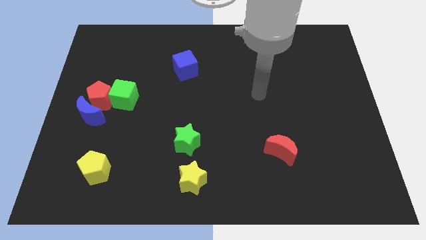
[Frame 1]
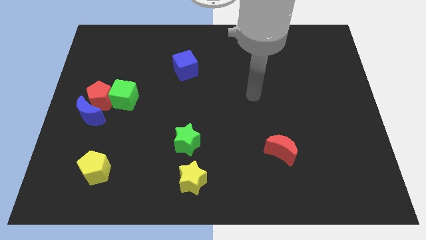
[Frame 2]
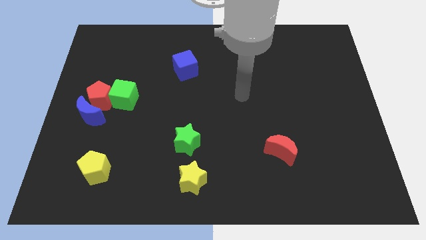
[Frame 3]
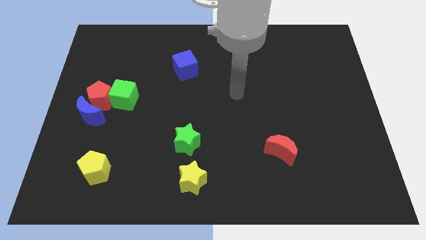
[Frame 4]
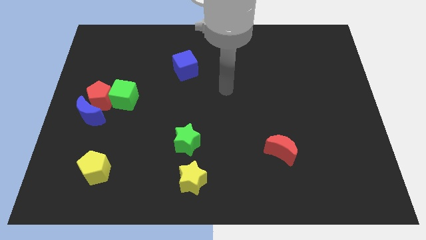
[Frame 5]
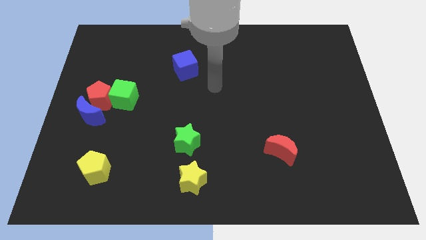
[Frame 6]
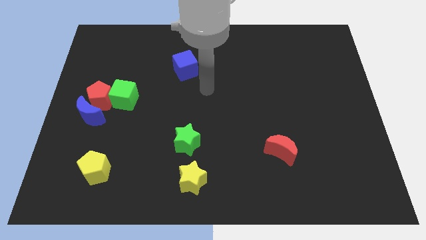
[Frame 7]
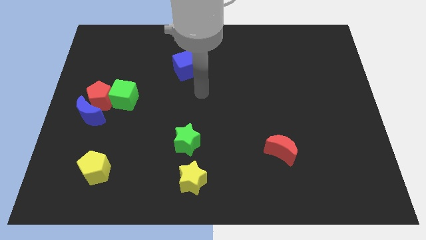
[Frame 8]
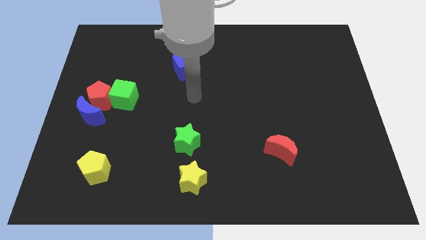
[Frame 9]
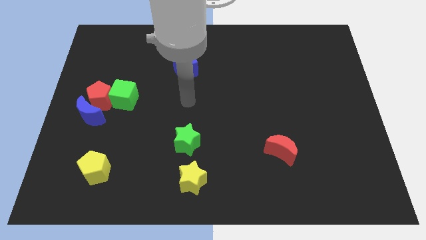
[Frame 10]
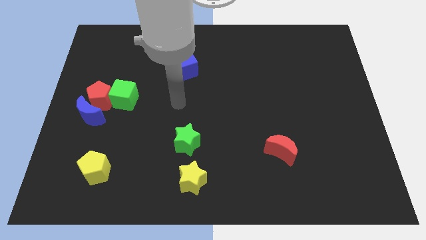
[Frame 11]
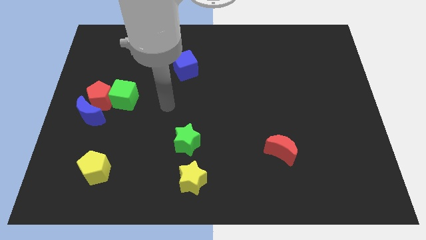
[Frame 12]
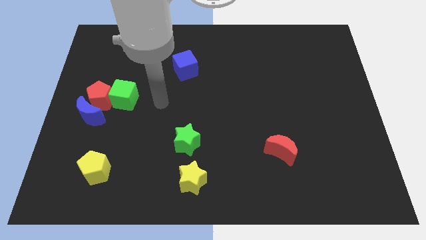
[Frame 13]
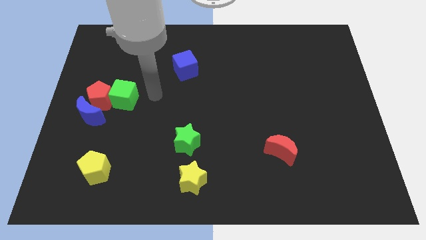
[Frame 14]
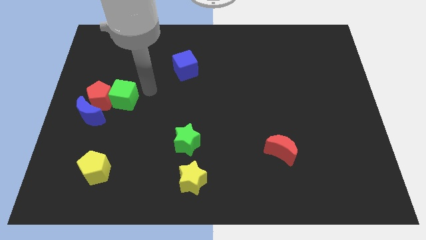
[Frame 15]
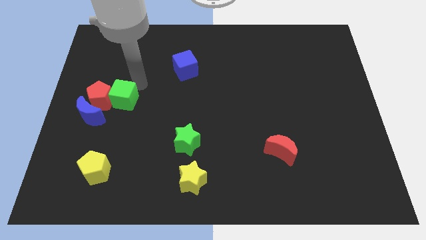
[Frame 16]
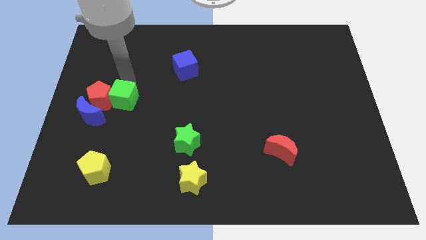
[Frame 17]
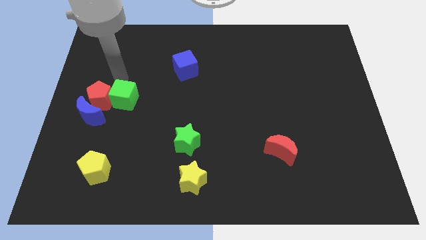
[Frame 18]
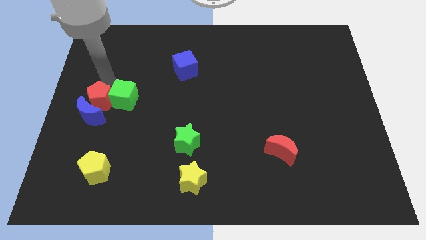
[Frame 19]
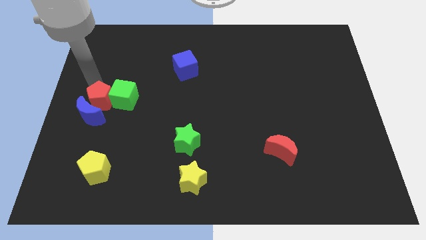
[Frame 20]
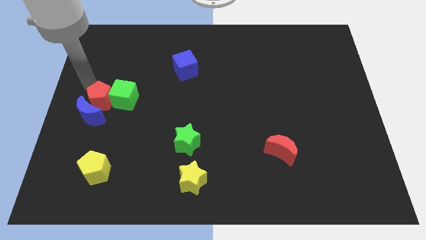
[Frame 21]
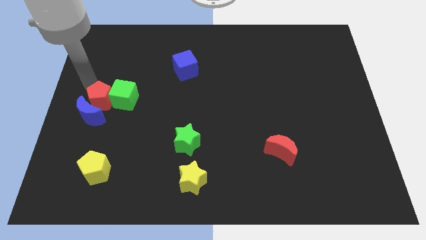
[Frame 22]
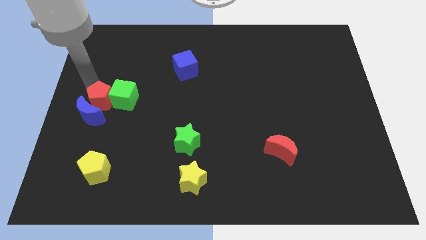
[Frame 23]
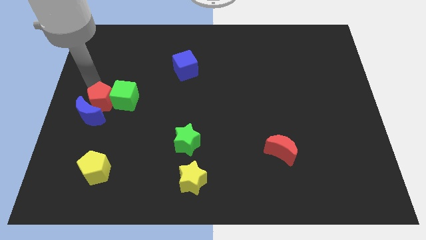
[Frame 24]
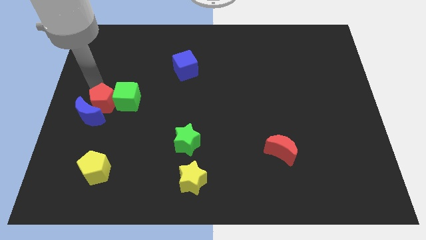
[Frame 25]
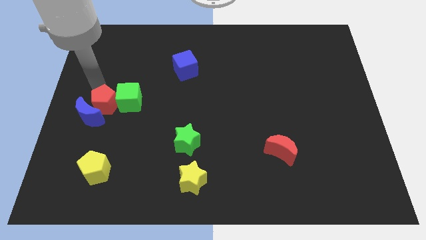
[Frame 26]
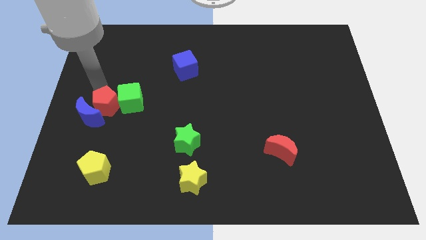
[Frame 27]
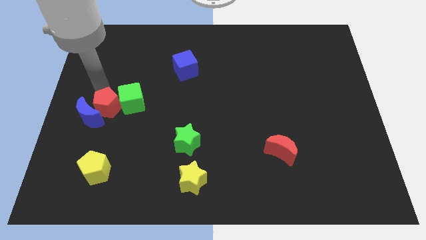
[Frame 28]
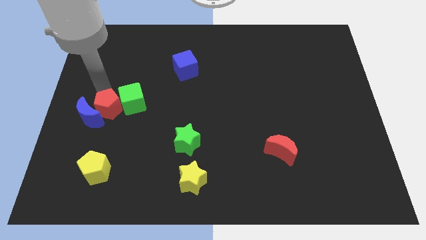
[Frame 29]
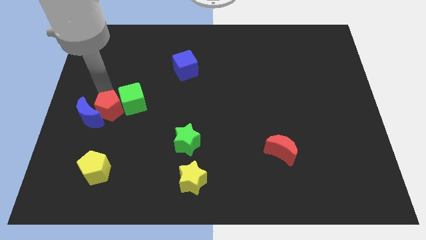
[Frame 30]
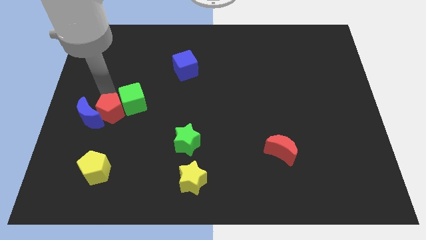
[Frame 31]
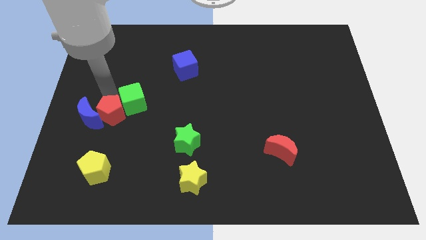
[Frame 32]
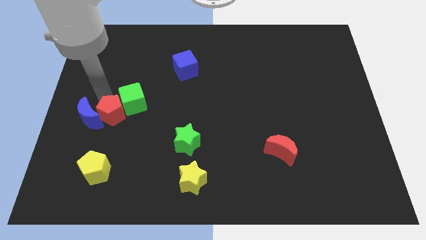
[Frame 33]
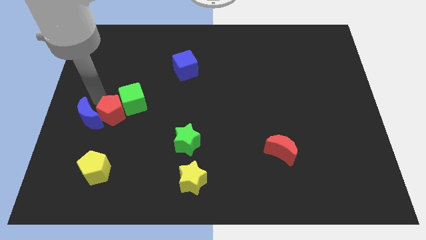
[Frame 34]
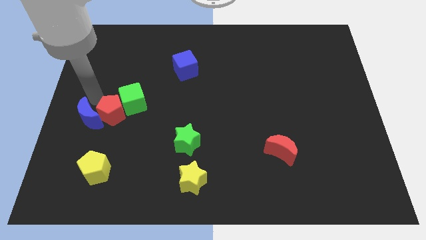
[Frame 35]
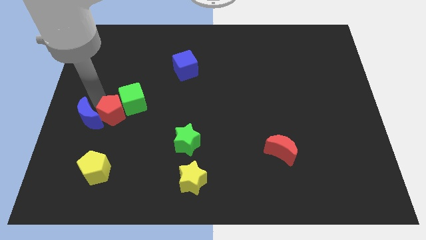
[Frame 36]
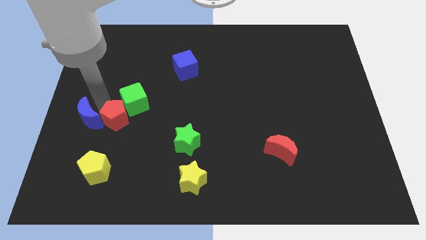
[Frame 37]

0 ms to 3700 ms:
move the red pentagon a bit down and to the right diagonally

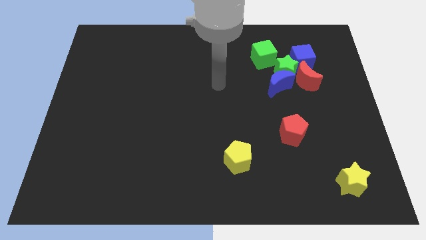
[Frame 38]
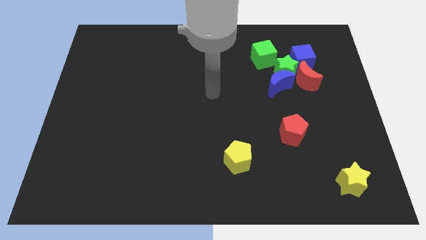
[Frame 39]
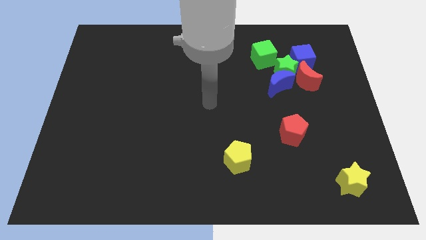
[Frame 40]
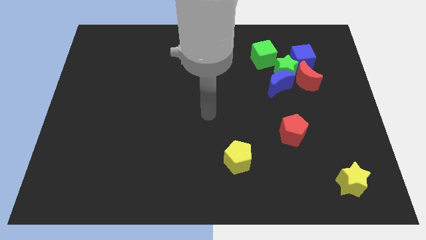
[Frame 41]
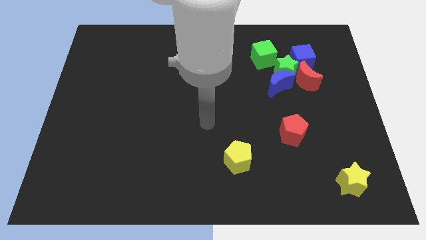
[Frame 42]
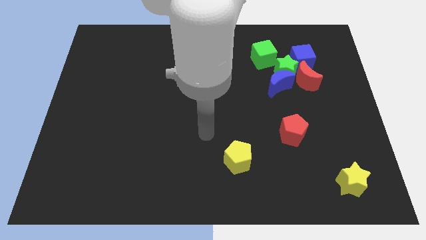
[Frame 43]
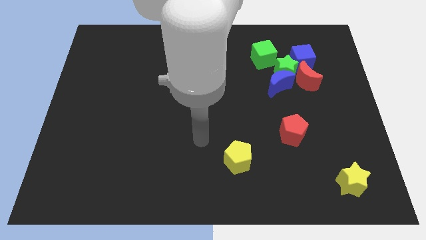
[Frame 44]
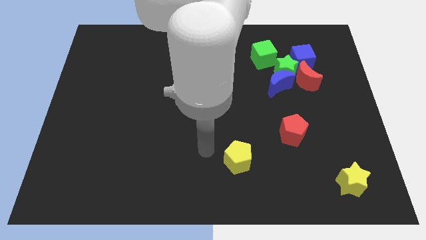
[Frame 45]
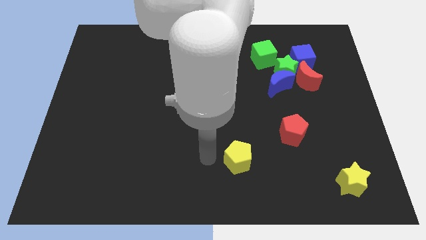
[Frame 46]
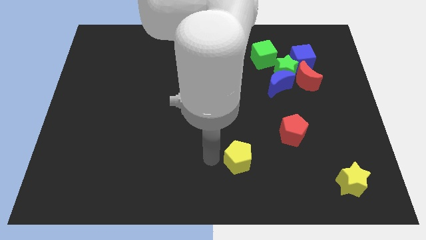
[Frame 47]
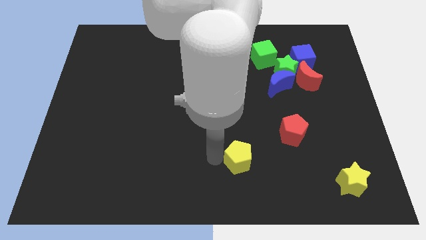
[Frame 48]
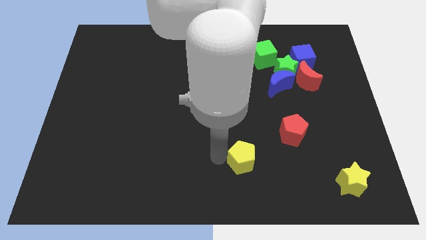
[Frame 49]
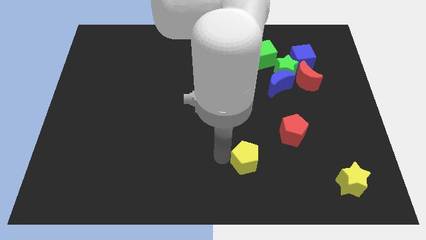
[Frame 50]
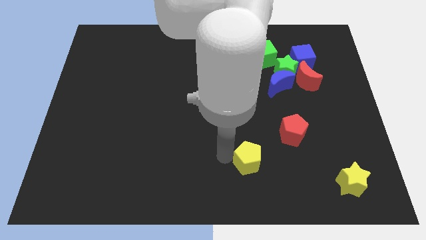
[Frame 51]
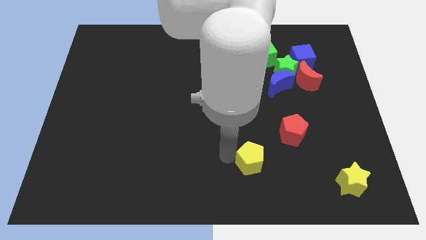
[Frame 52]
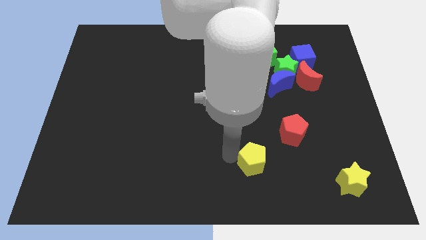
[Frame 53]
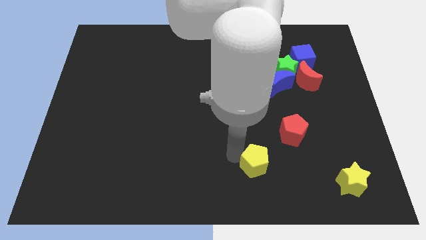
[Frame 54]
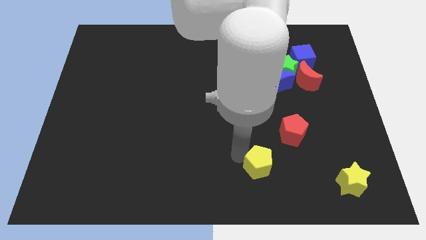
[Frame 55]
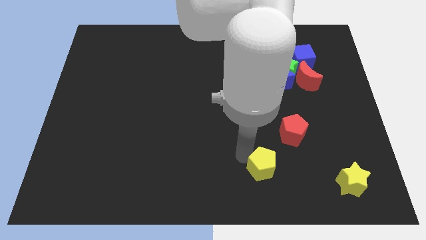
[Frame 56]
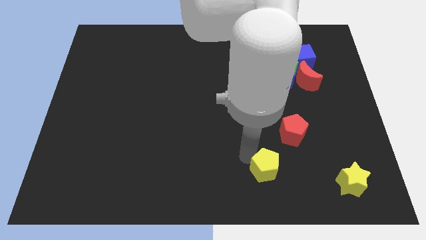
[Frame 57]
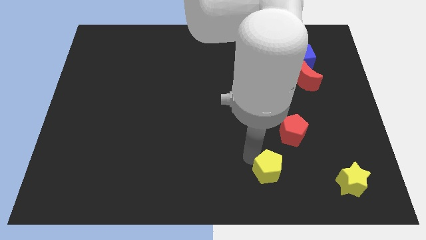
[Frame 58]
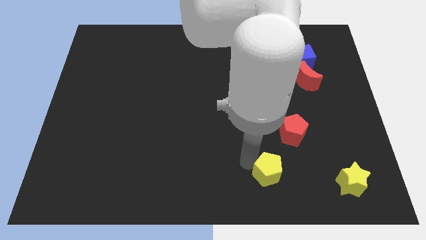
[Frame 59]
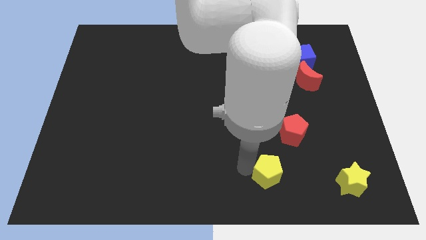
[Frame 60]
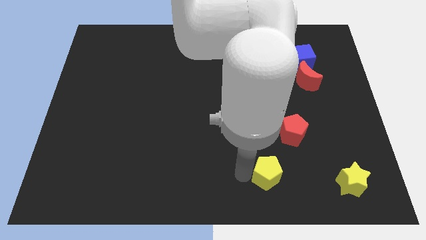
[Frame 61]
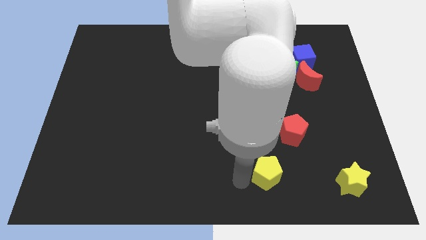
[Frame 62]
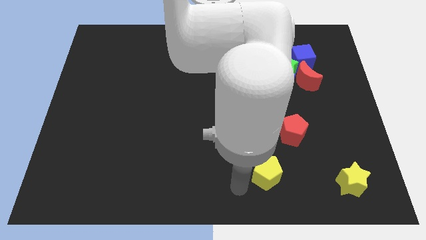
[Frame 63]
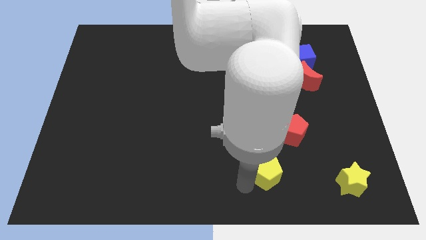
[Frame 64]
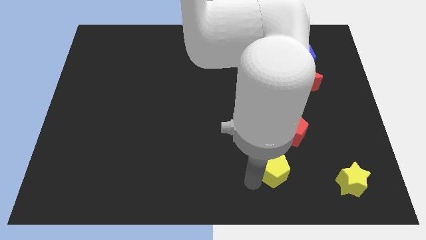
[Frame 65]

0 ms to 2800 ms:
slightly push the yellow pentagon right

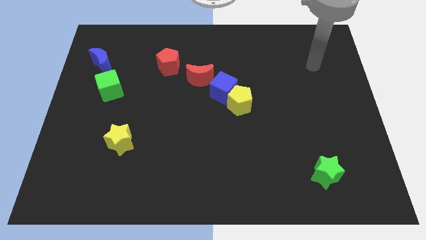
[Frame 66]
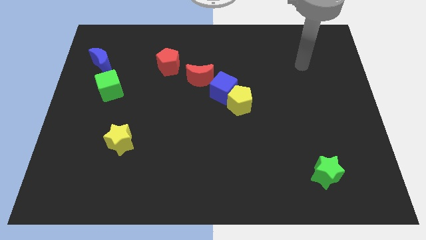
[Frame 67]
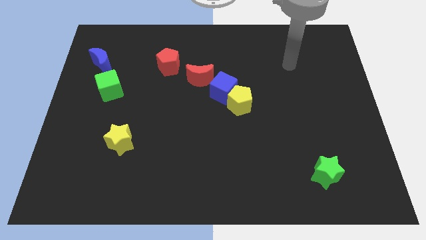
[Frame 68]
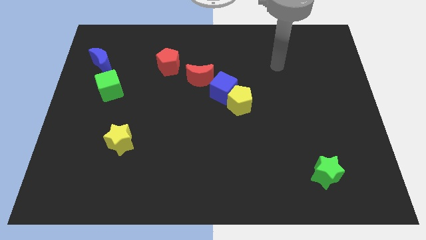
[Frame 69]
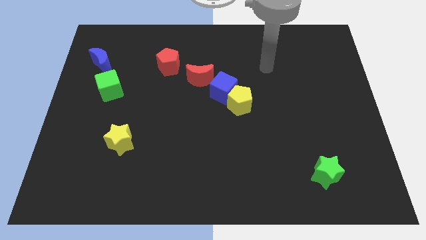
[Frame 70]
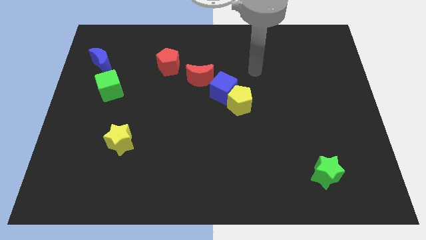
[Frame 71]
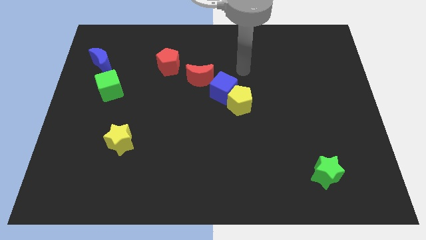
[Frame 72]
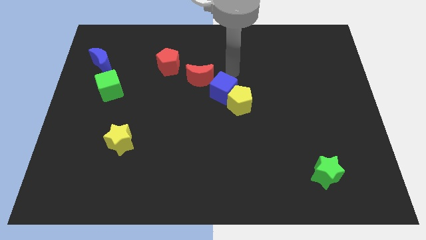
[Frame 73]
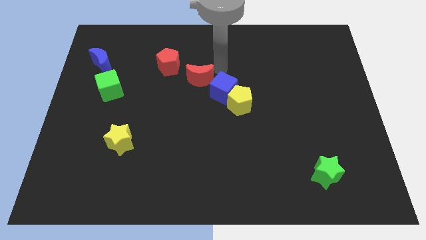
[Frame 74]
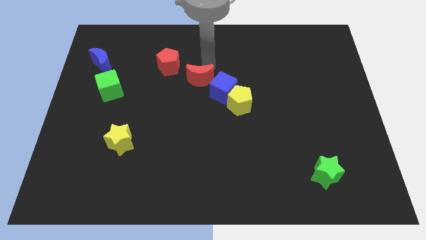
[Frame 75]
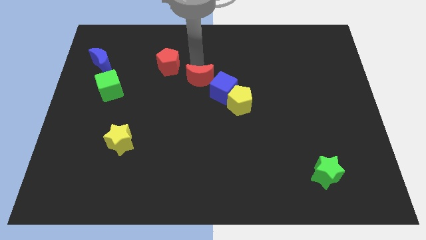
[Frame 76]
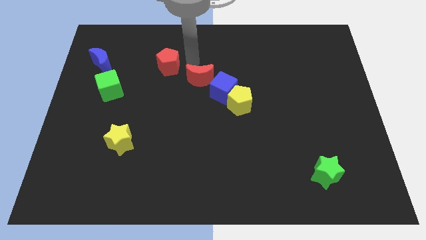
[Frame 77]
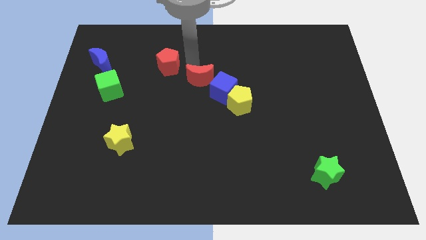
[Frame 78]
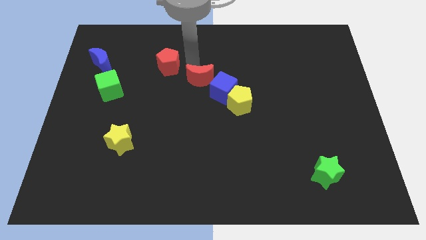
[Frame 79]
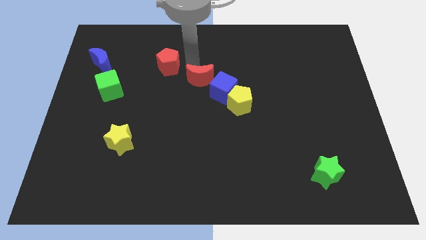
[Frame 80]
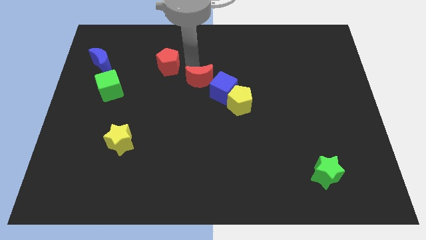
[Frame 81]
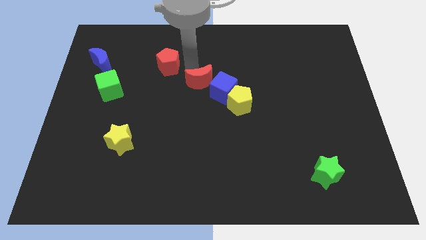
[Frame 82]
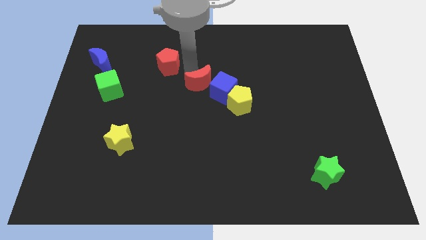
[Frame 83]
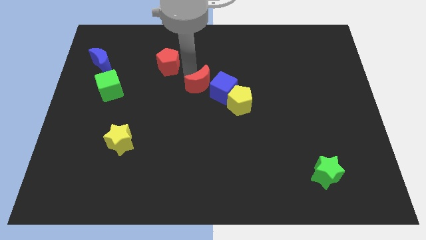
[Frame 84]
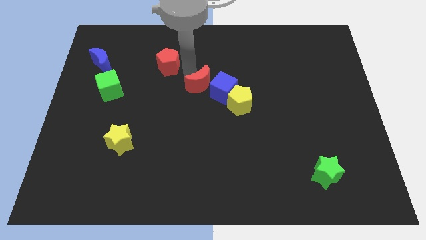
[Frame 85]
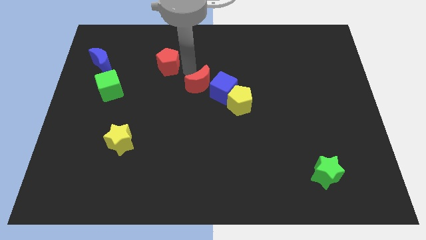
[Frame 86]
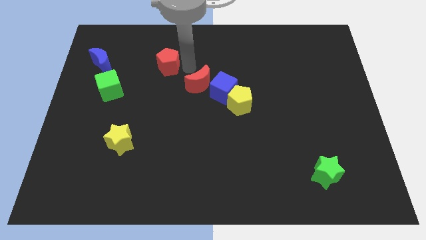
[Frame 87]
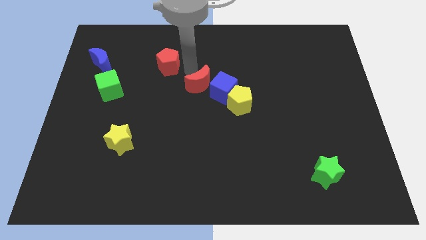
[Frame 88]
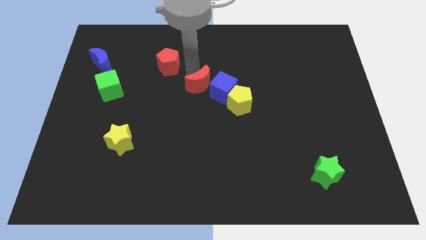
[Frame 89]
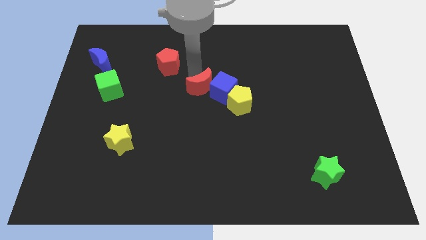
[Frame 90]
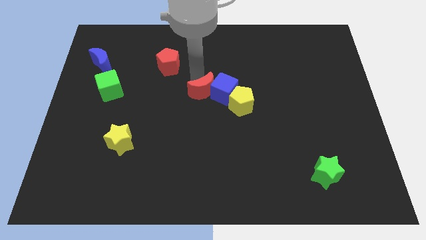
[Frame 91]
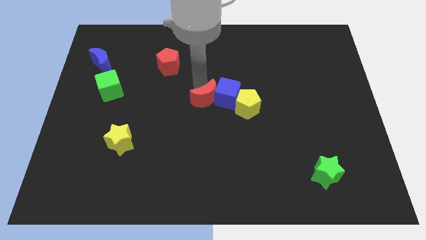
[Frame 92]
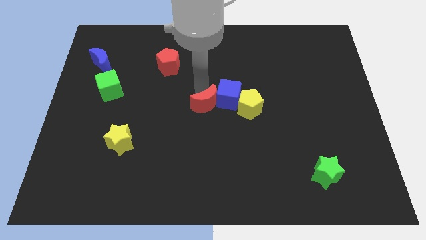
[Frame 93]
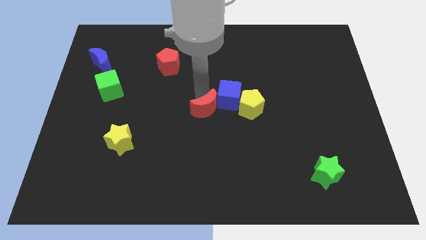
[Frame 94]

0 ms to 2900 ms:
slide the red moon diagonally down and right slightly
